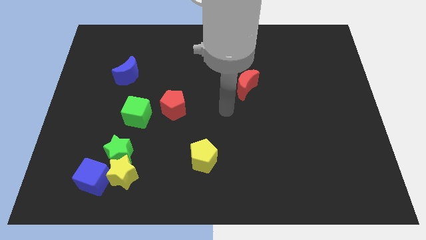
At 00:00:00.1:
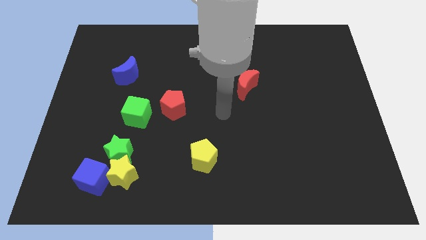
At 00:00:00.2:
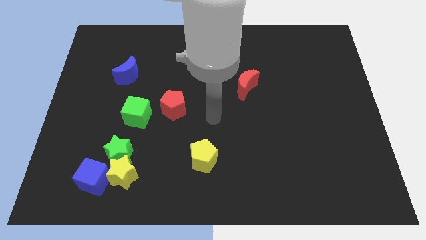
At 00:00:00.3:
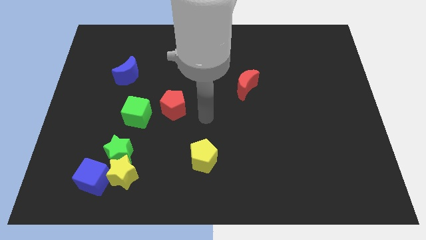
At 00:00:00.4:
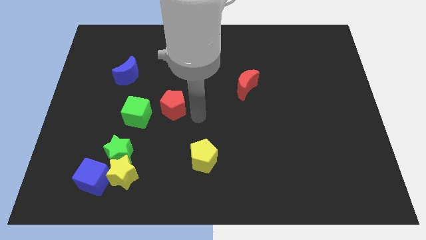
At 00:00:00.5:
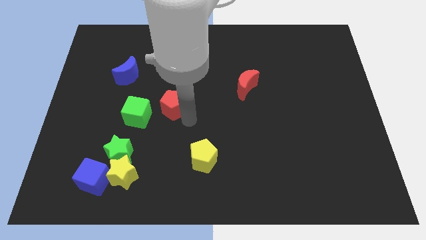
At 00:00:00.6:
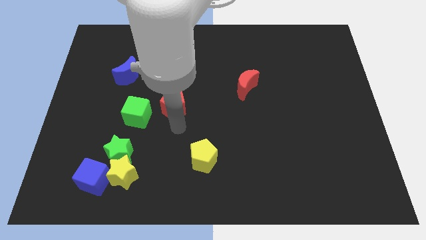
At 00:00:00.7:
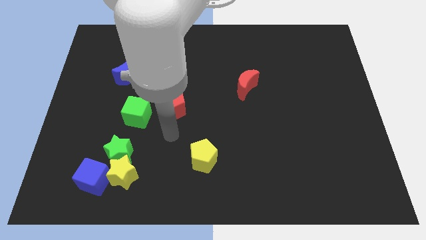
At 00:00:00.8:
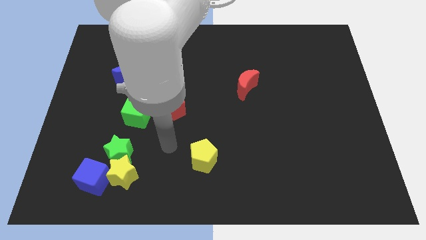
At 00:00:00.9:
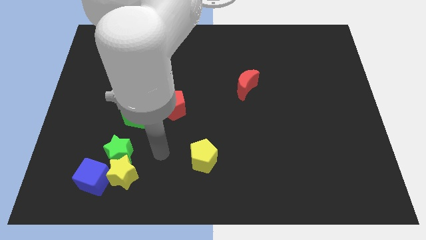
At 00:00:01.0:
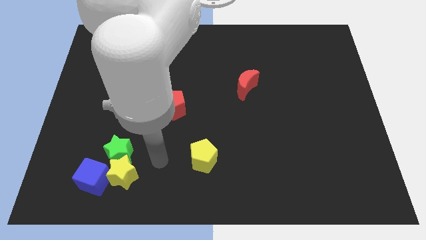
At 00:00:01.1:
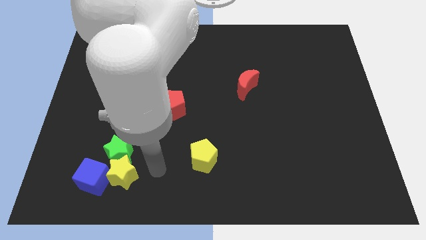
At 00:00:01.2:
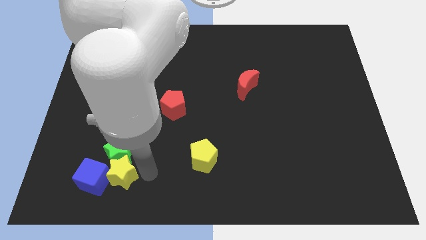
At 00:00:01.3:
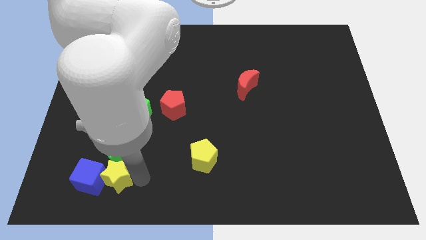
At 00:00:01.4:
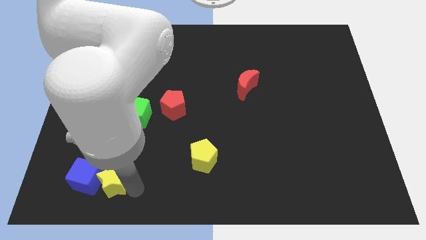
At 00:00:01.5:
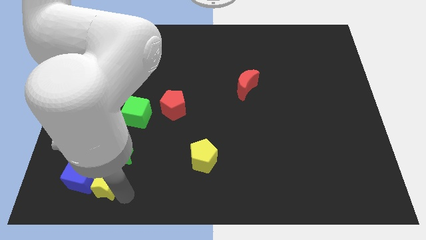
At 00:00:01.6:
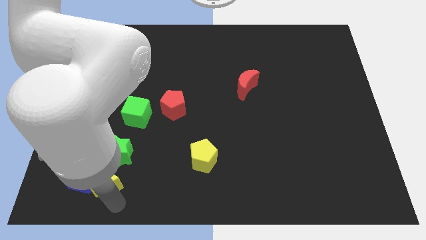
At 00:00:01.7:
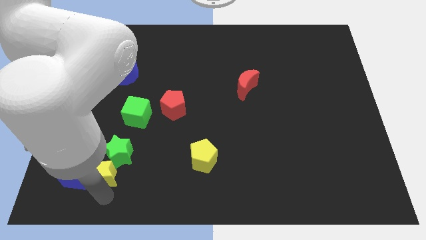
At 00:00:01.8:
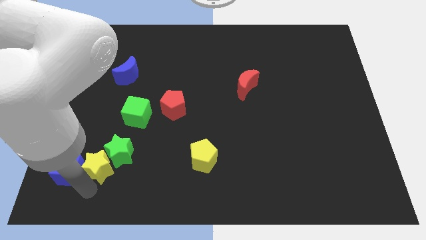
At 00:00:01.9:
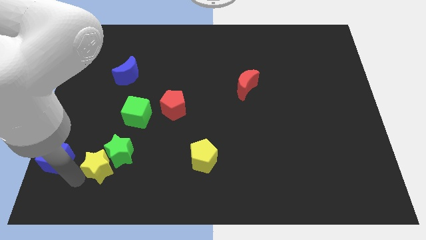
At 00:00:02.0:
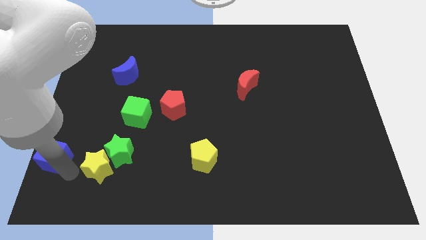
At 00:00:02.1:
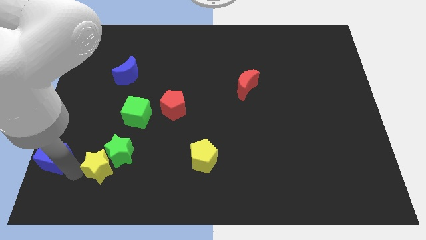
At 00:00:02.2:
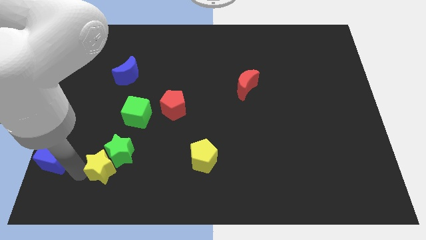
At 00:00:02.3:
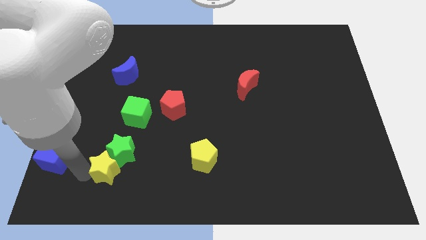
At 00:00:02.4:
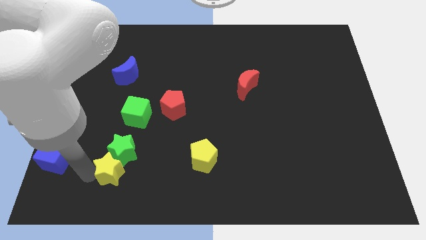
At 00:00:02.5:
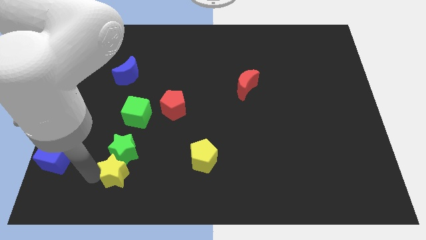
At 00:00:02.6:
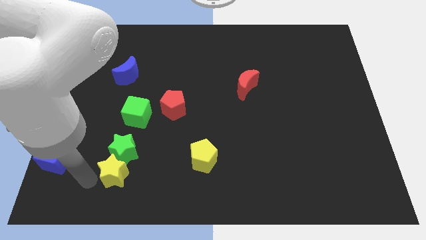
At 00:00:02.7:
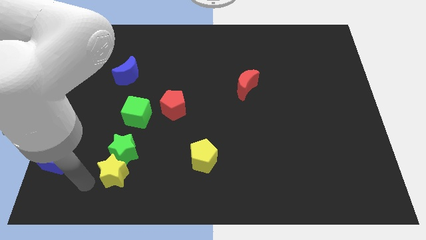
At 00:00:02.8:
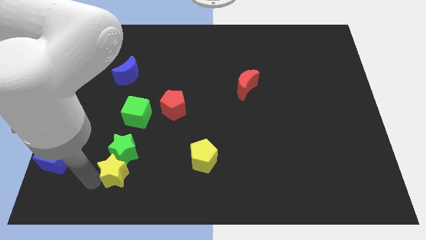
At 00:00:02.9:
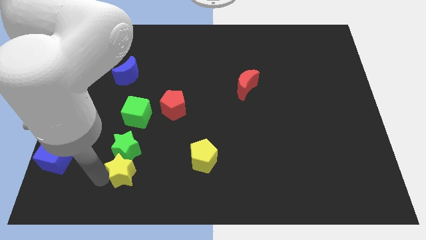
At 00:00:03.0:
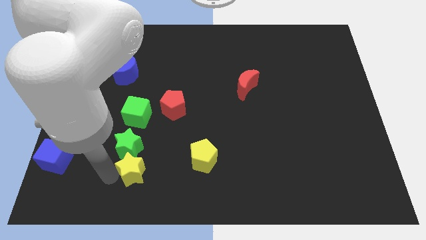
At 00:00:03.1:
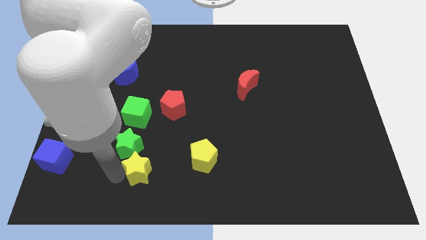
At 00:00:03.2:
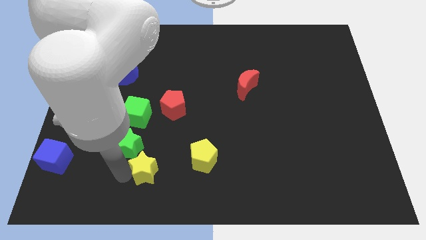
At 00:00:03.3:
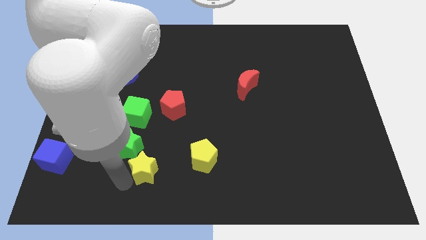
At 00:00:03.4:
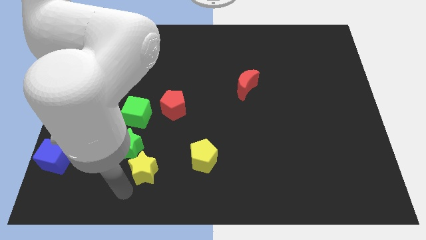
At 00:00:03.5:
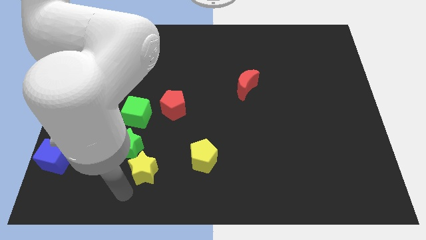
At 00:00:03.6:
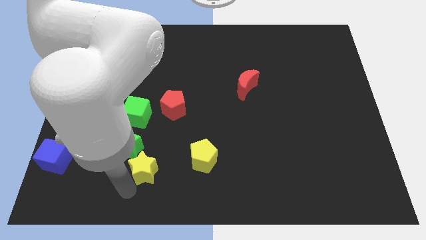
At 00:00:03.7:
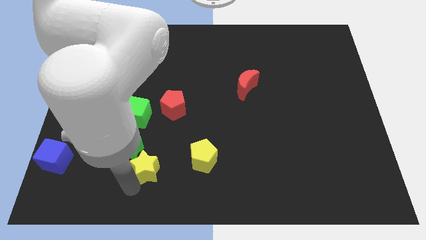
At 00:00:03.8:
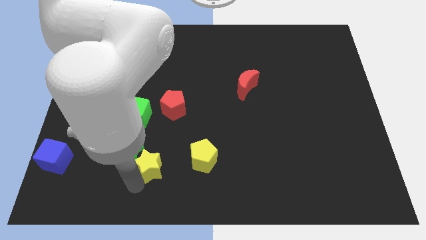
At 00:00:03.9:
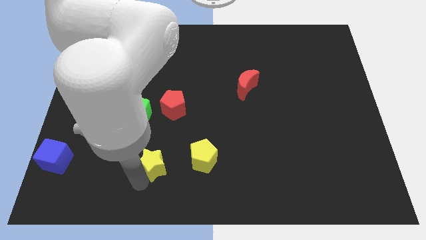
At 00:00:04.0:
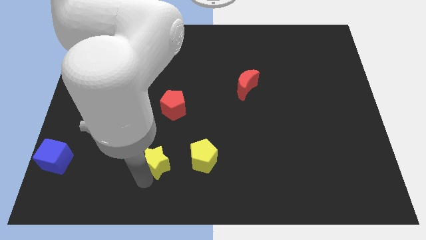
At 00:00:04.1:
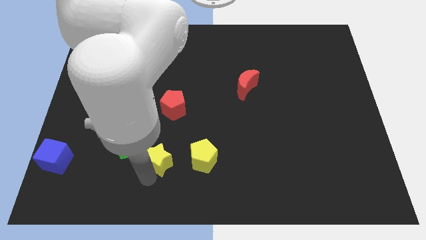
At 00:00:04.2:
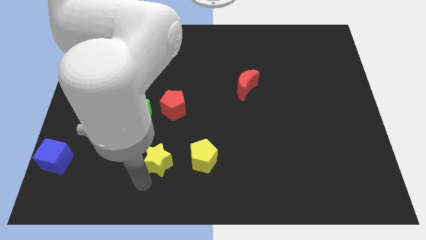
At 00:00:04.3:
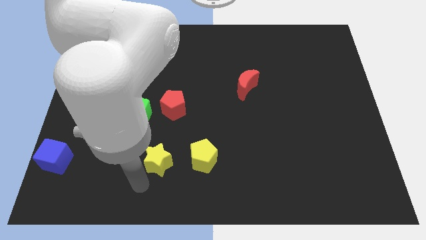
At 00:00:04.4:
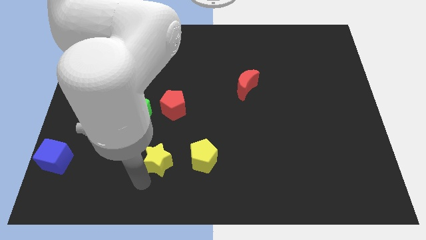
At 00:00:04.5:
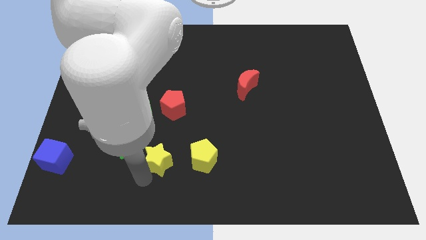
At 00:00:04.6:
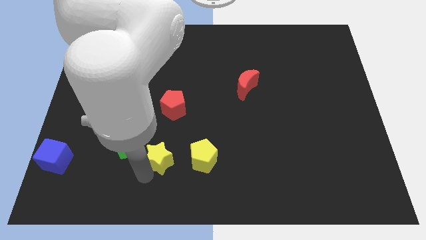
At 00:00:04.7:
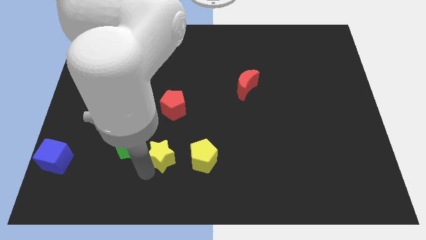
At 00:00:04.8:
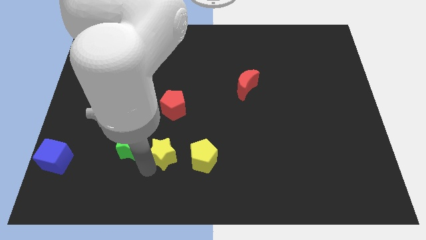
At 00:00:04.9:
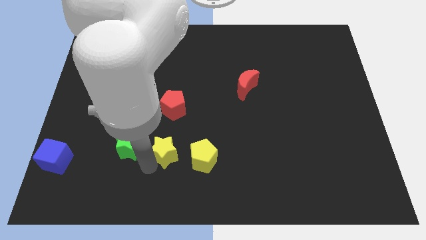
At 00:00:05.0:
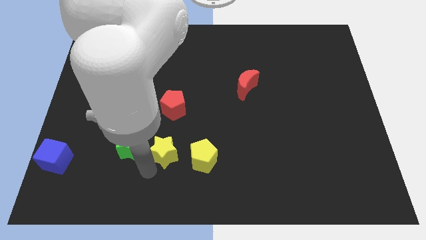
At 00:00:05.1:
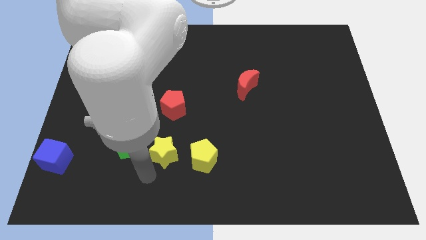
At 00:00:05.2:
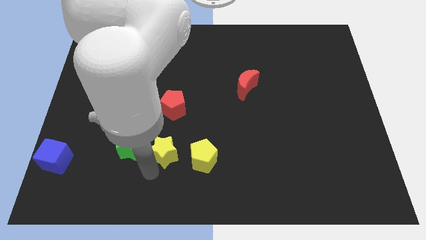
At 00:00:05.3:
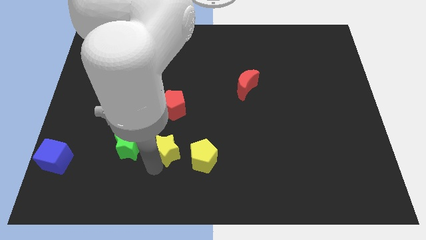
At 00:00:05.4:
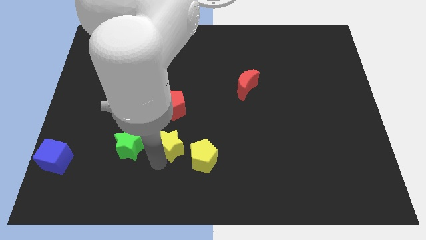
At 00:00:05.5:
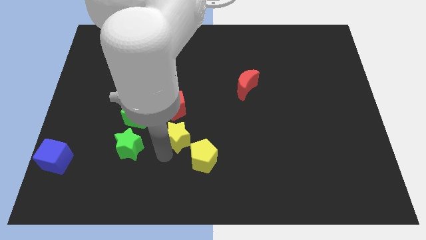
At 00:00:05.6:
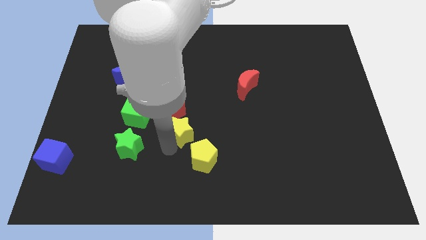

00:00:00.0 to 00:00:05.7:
slide the yellow star to the middle

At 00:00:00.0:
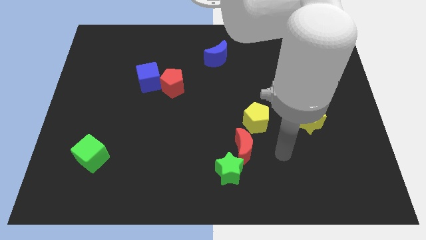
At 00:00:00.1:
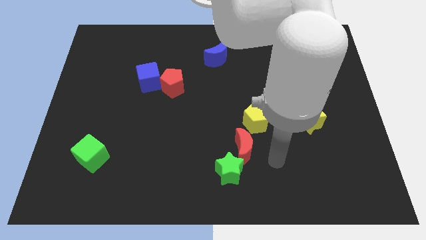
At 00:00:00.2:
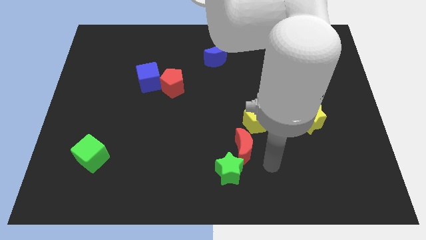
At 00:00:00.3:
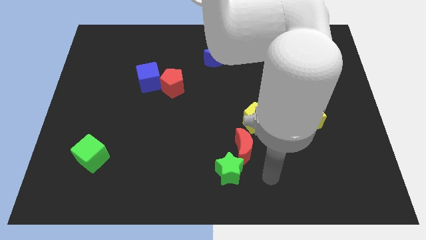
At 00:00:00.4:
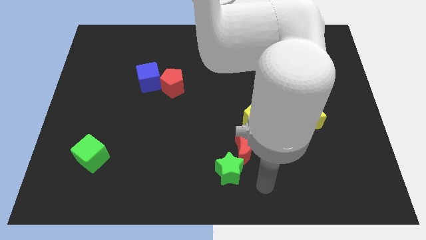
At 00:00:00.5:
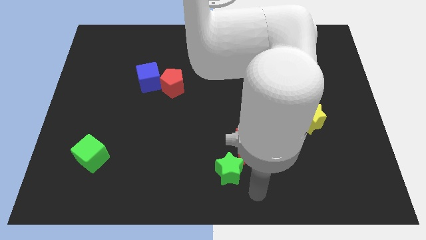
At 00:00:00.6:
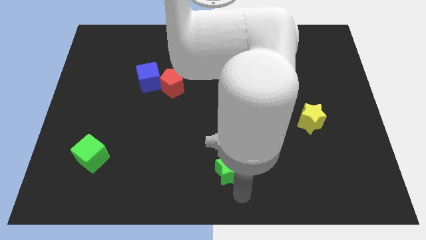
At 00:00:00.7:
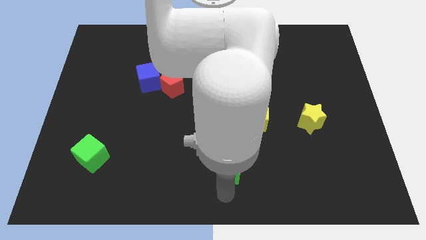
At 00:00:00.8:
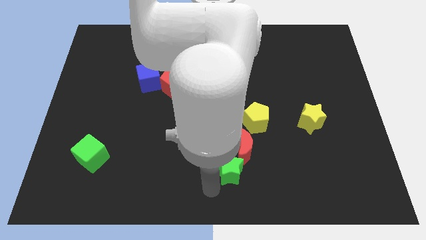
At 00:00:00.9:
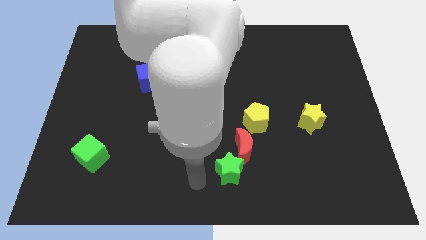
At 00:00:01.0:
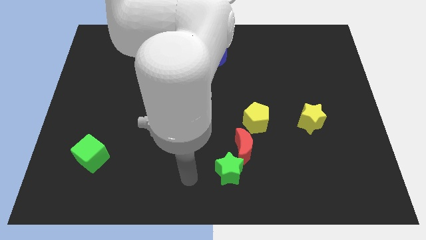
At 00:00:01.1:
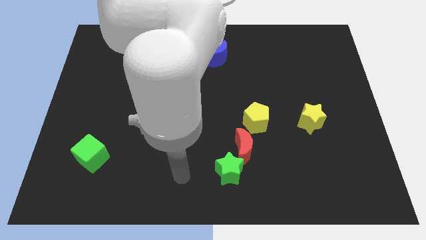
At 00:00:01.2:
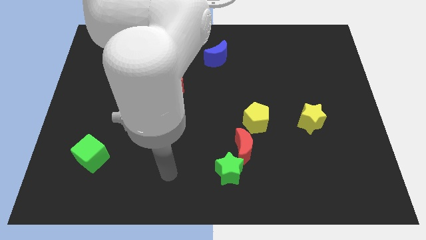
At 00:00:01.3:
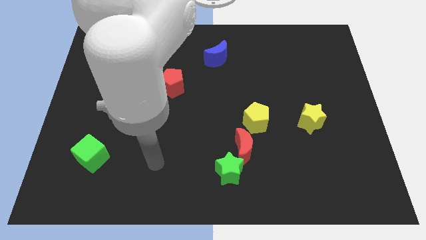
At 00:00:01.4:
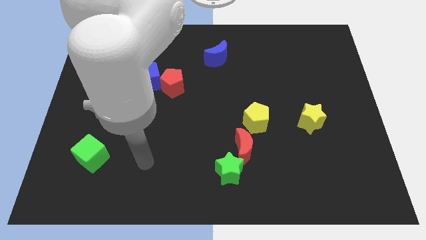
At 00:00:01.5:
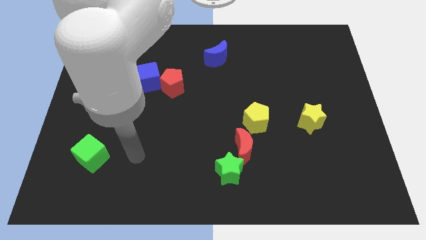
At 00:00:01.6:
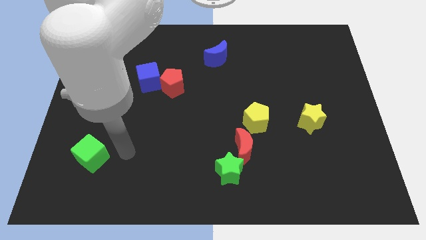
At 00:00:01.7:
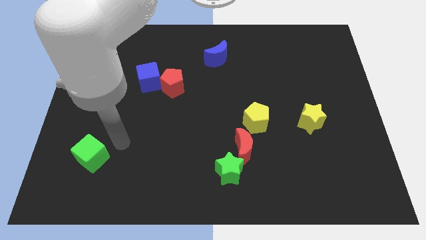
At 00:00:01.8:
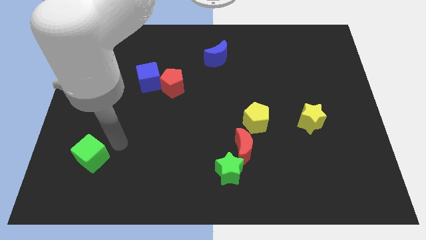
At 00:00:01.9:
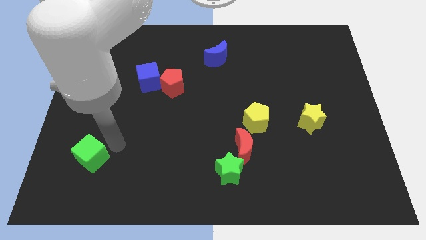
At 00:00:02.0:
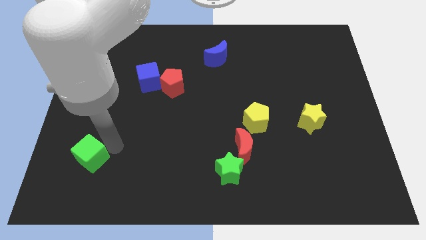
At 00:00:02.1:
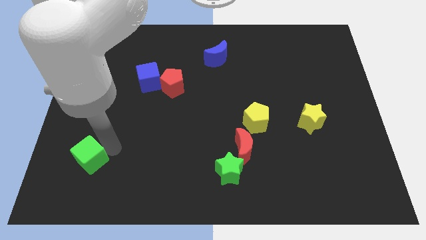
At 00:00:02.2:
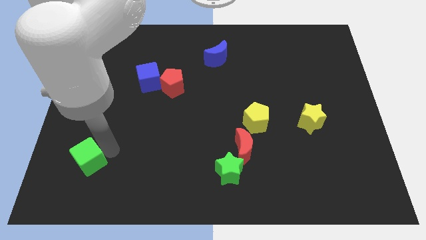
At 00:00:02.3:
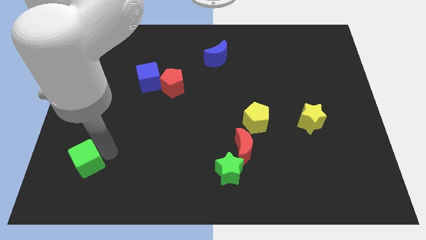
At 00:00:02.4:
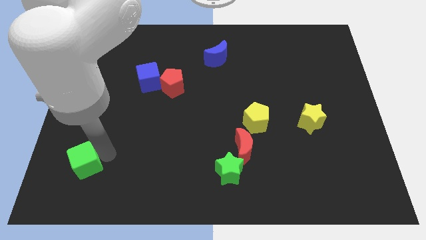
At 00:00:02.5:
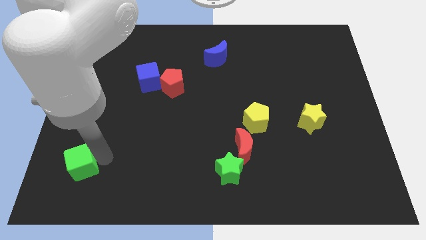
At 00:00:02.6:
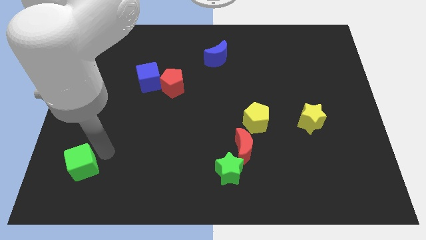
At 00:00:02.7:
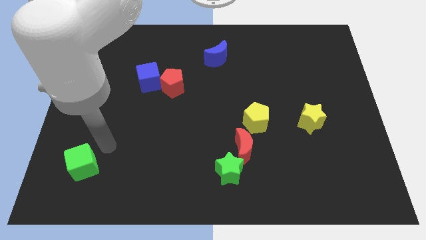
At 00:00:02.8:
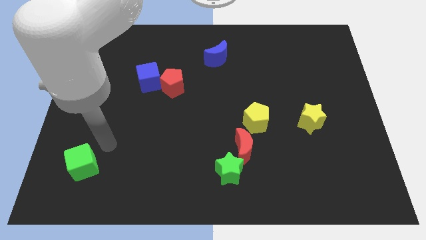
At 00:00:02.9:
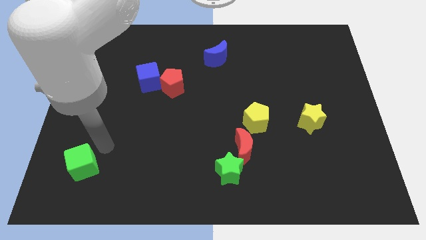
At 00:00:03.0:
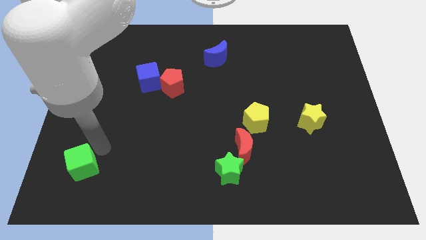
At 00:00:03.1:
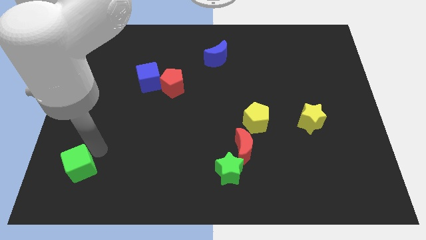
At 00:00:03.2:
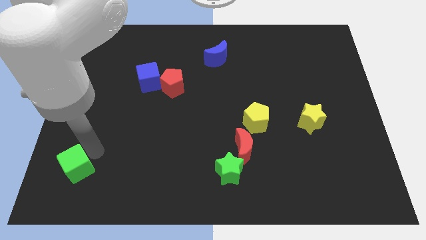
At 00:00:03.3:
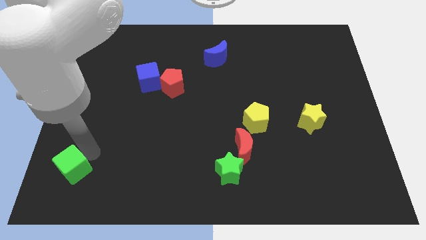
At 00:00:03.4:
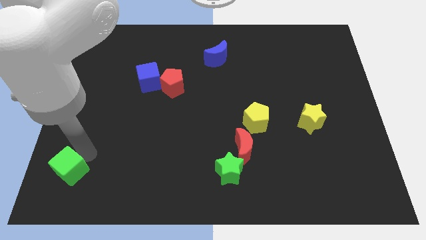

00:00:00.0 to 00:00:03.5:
push the green cube to the bottom left
